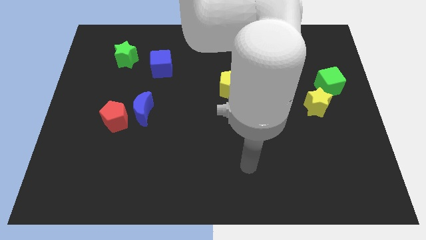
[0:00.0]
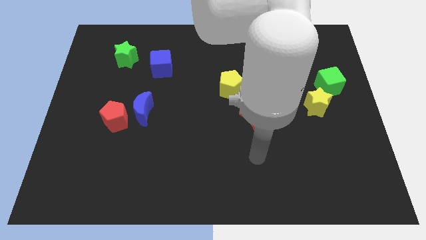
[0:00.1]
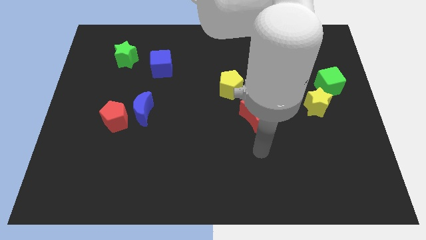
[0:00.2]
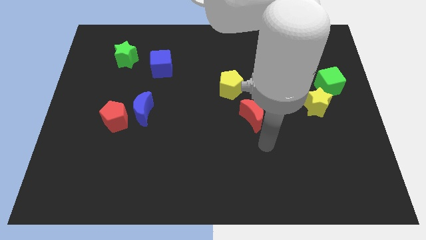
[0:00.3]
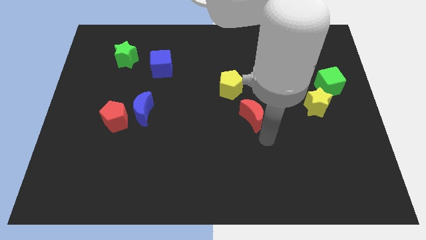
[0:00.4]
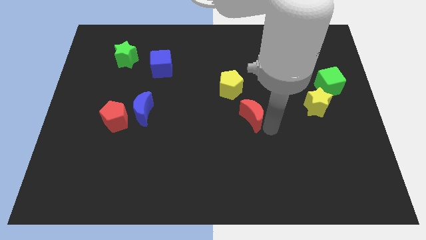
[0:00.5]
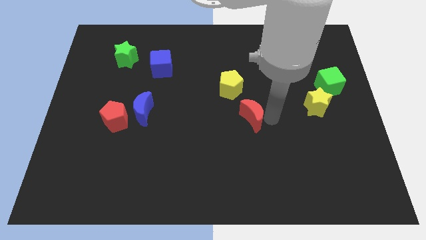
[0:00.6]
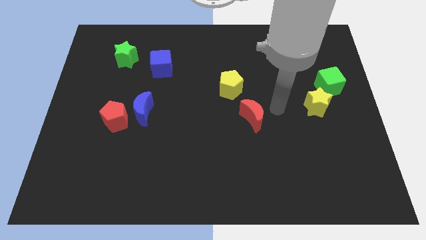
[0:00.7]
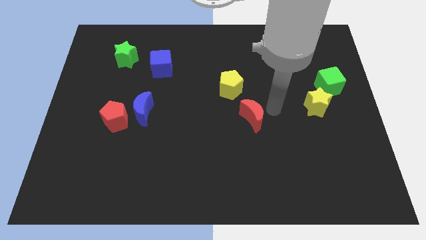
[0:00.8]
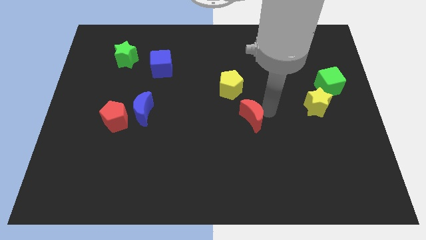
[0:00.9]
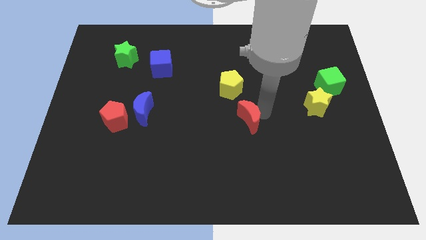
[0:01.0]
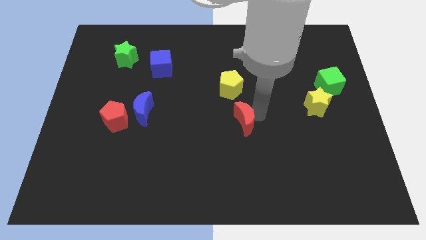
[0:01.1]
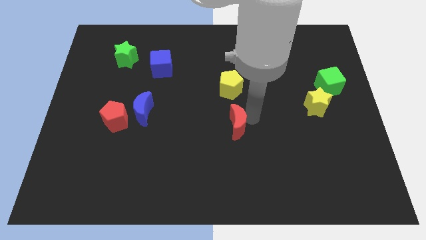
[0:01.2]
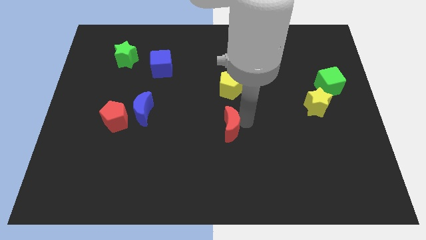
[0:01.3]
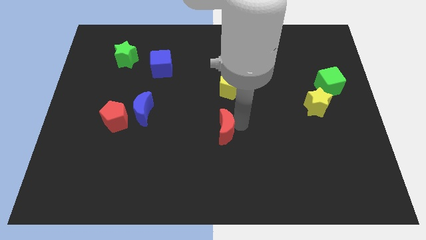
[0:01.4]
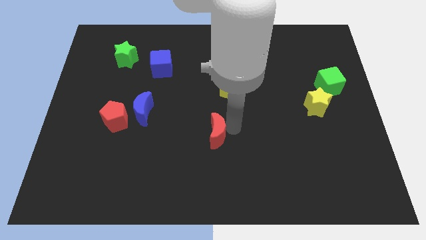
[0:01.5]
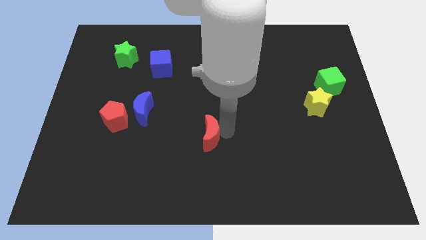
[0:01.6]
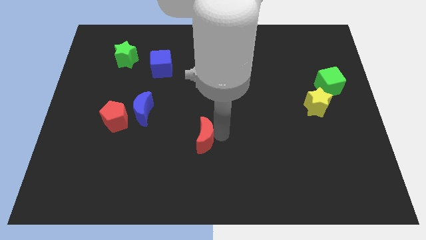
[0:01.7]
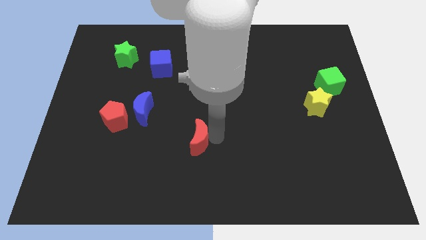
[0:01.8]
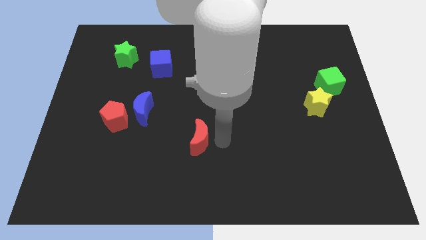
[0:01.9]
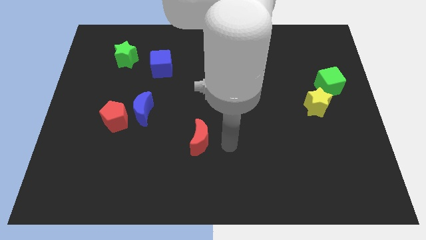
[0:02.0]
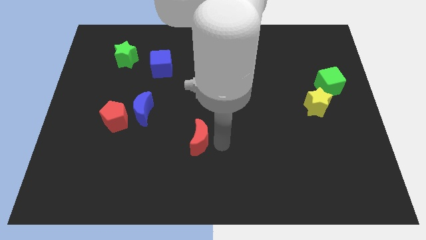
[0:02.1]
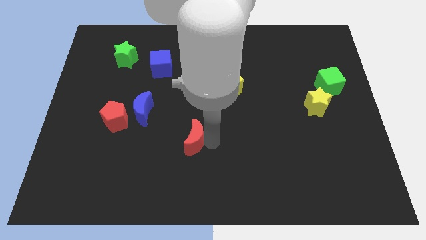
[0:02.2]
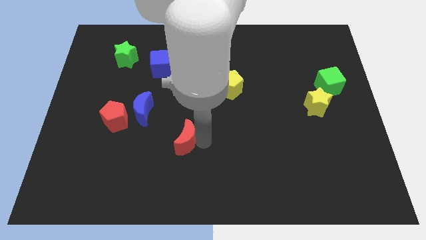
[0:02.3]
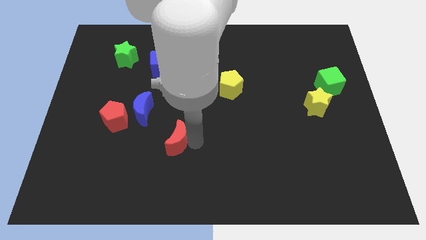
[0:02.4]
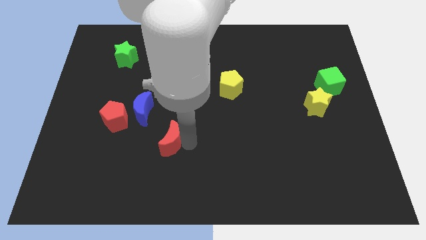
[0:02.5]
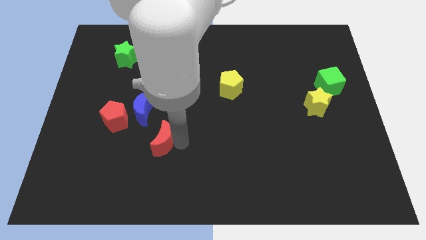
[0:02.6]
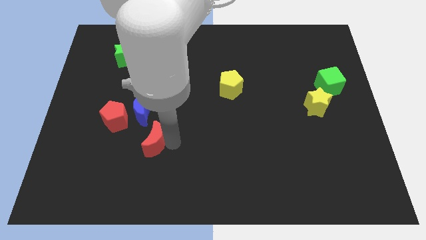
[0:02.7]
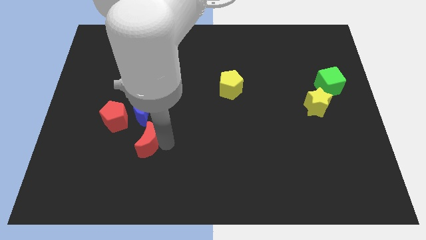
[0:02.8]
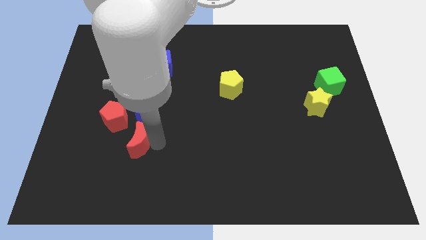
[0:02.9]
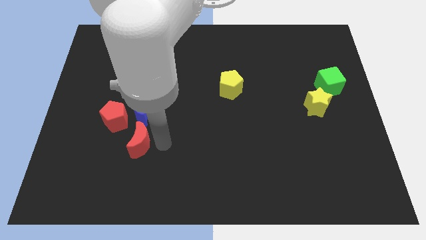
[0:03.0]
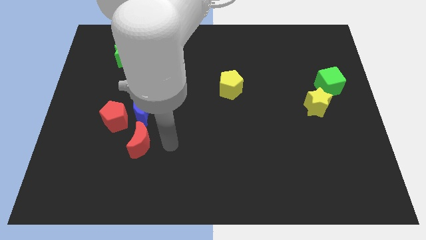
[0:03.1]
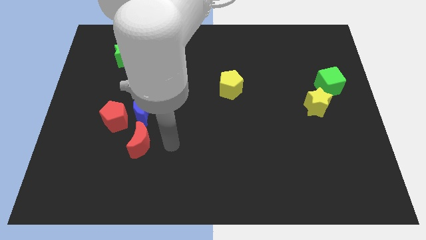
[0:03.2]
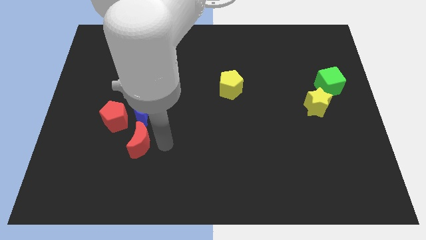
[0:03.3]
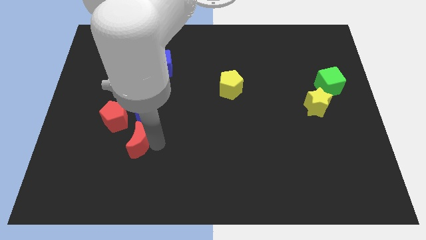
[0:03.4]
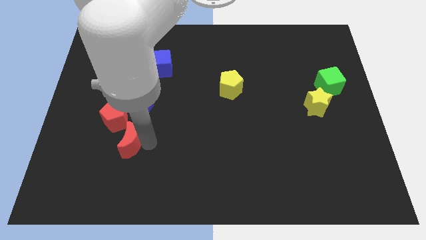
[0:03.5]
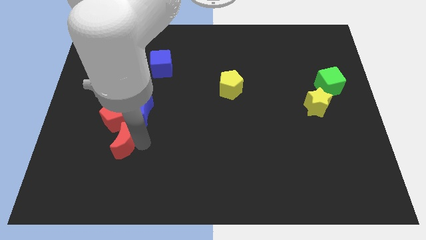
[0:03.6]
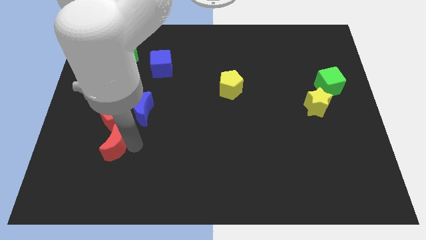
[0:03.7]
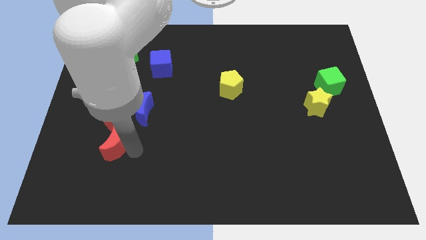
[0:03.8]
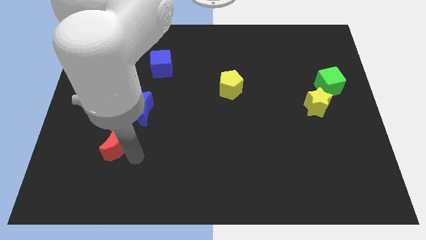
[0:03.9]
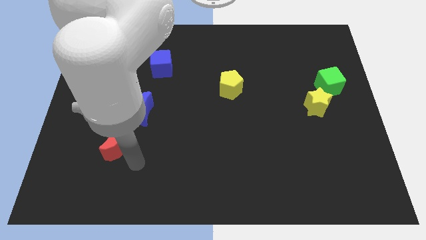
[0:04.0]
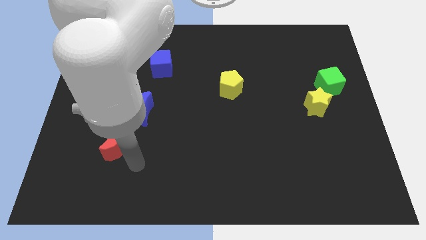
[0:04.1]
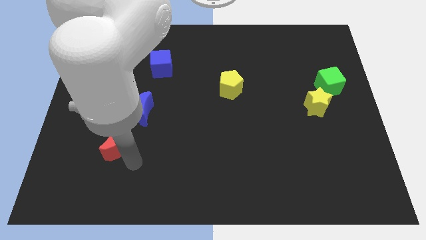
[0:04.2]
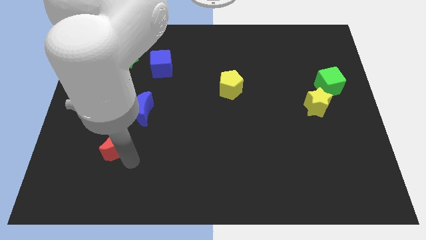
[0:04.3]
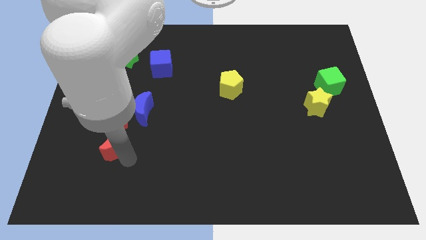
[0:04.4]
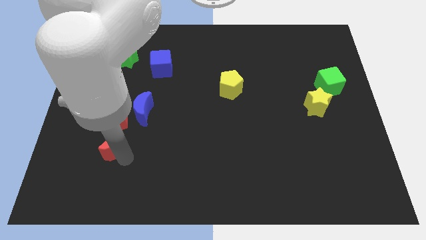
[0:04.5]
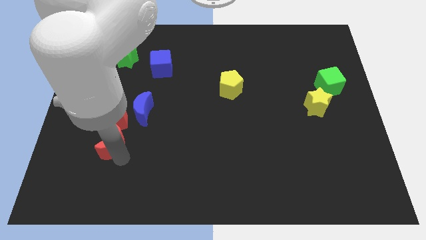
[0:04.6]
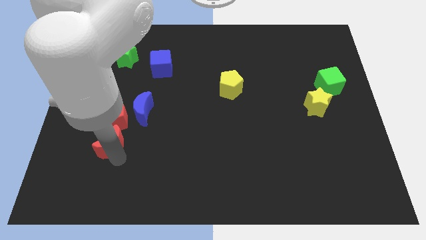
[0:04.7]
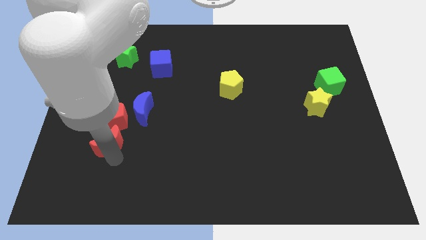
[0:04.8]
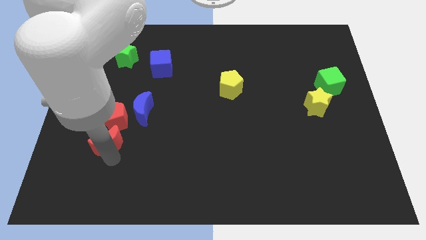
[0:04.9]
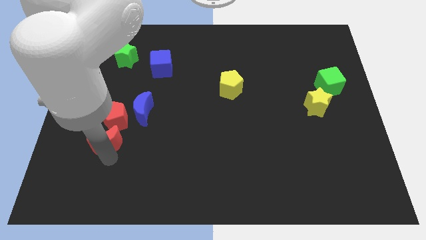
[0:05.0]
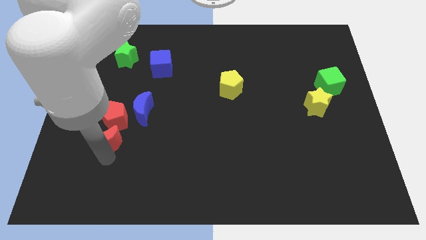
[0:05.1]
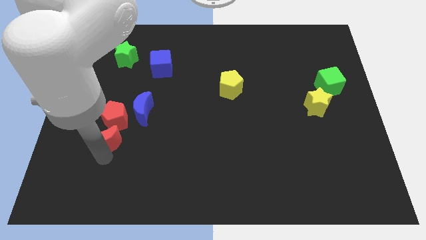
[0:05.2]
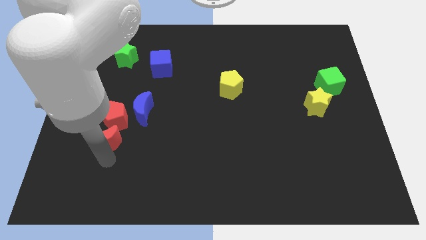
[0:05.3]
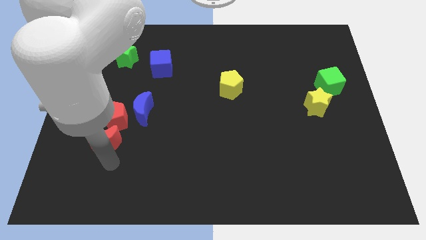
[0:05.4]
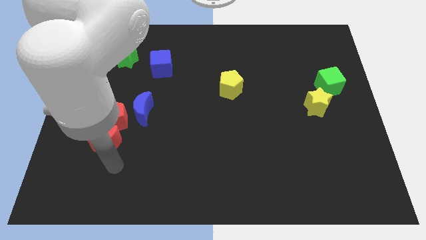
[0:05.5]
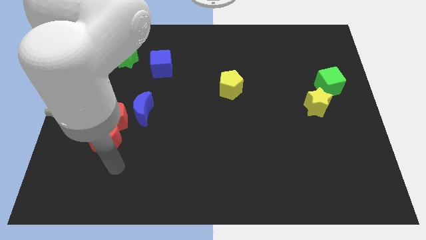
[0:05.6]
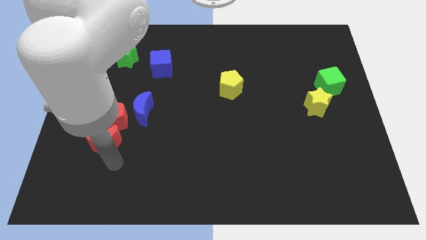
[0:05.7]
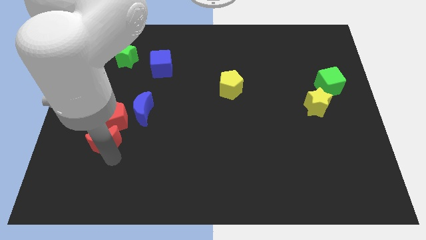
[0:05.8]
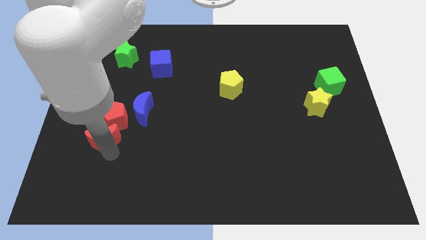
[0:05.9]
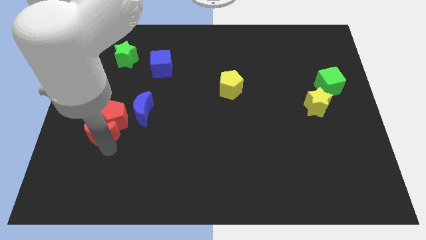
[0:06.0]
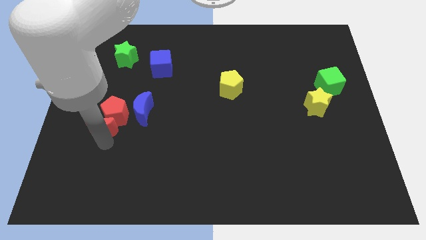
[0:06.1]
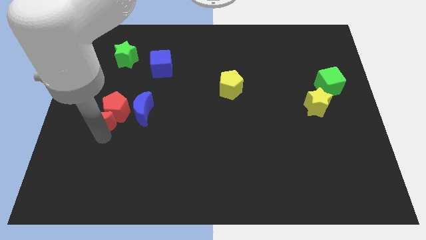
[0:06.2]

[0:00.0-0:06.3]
move the red moon to the left of the blue moon
